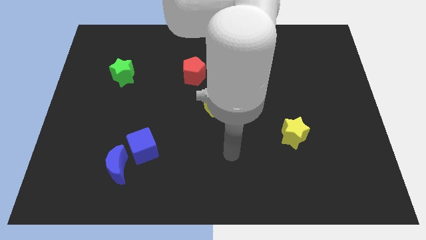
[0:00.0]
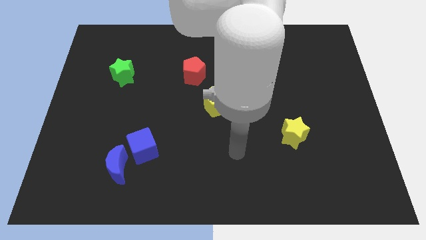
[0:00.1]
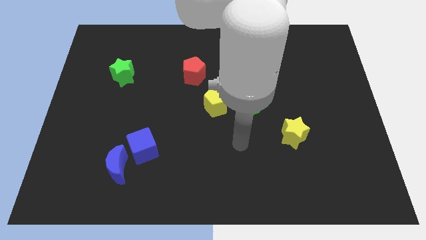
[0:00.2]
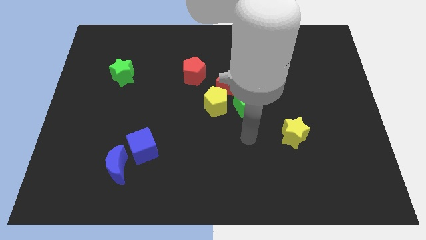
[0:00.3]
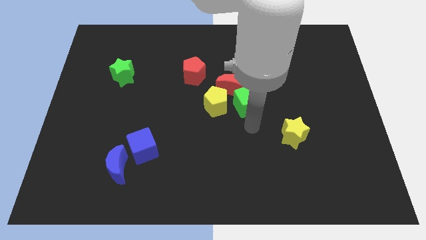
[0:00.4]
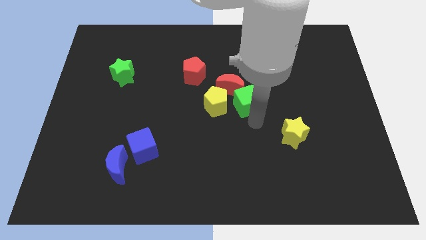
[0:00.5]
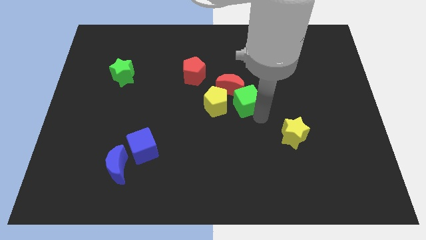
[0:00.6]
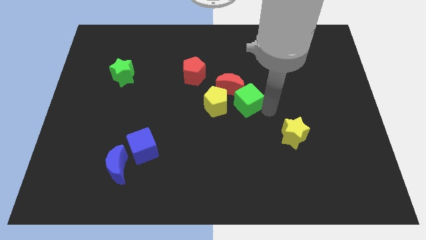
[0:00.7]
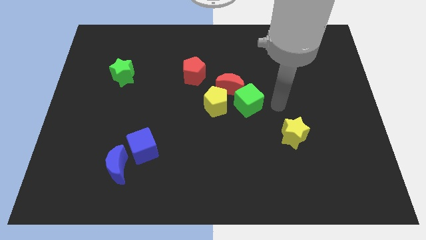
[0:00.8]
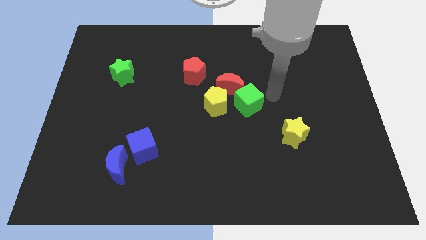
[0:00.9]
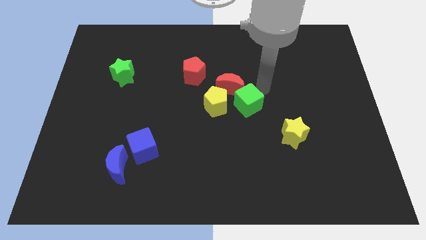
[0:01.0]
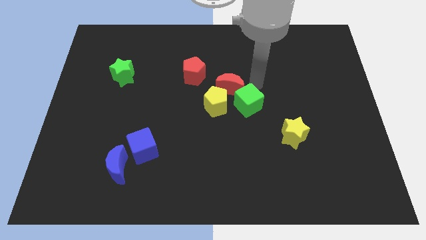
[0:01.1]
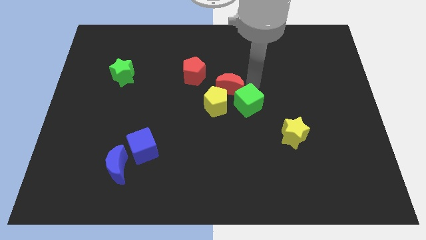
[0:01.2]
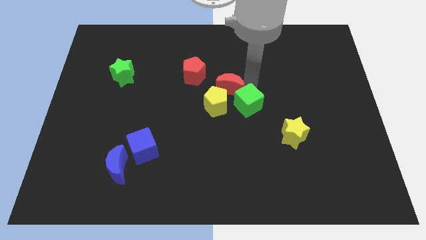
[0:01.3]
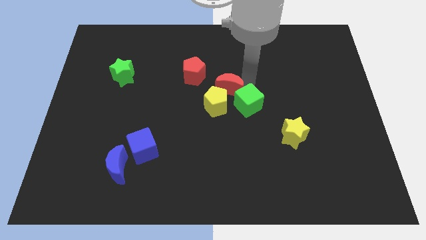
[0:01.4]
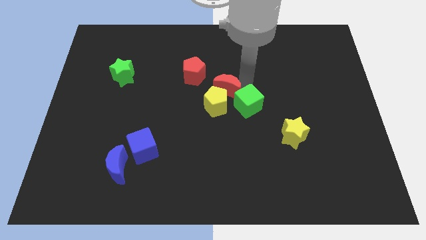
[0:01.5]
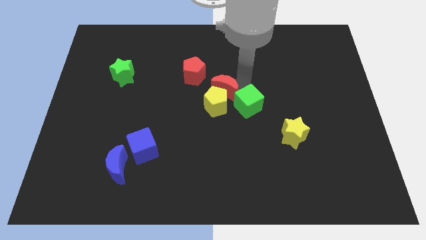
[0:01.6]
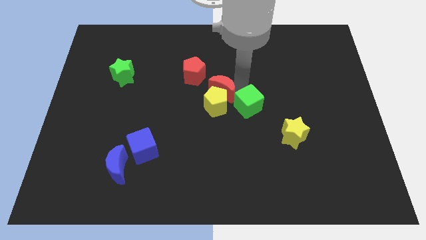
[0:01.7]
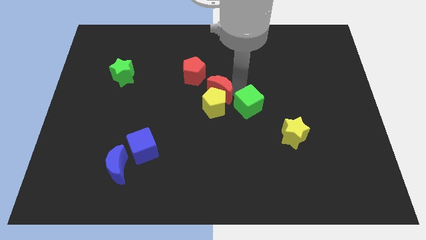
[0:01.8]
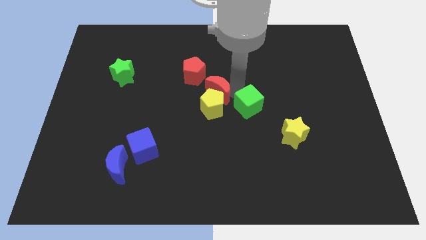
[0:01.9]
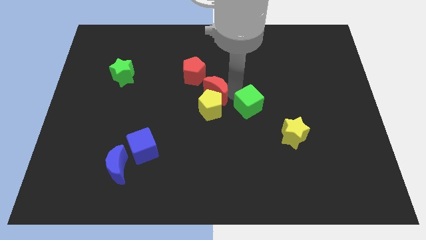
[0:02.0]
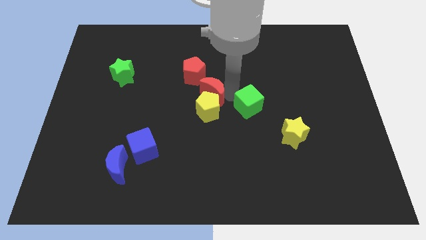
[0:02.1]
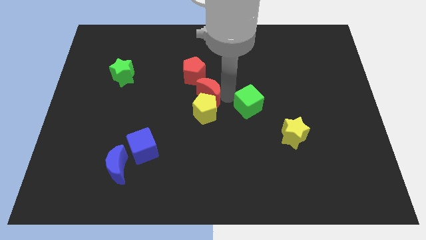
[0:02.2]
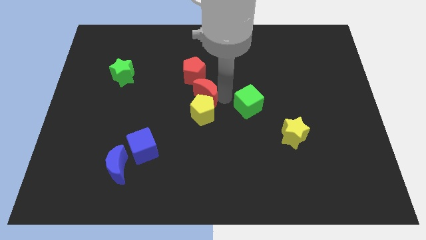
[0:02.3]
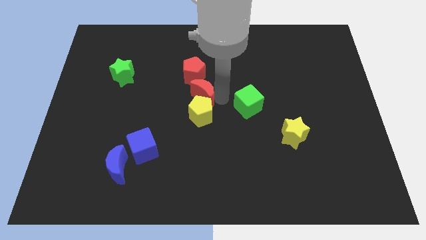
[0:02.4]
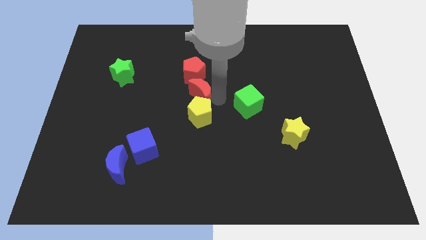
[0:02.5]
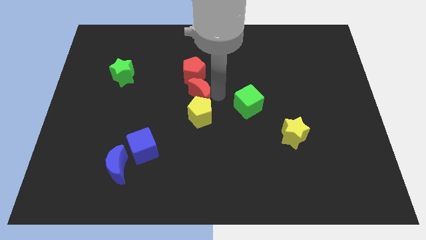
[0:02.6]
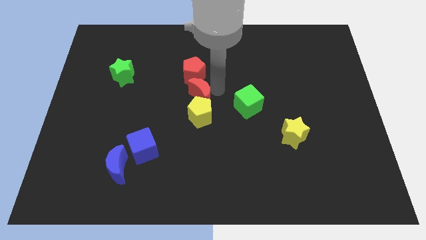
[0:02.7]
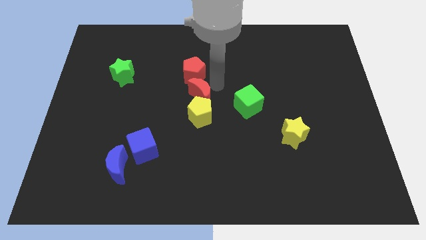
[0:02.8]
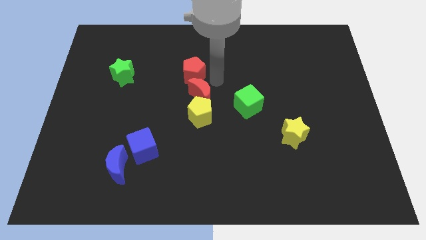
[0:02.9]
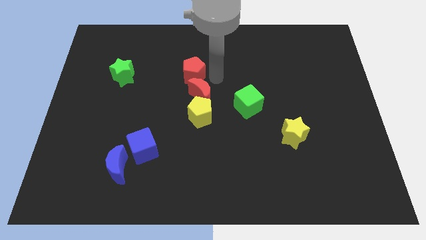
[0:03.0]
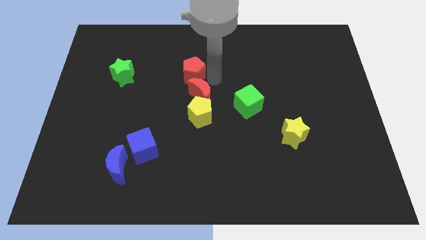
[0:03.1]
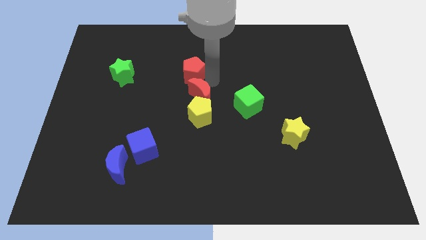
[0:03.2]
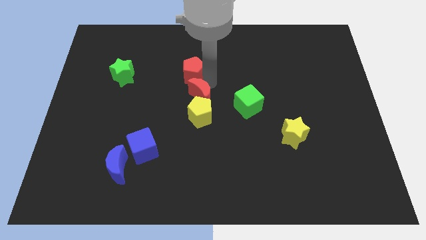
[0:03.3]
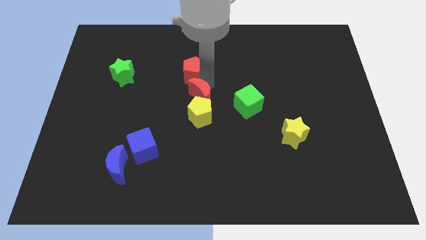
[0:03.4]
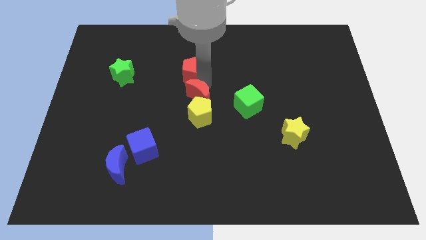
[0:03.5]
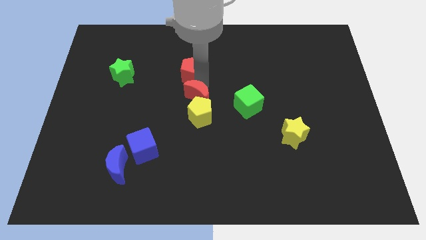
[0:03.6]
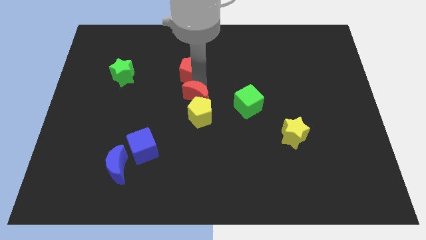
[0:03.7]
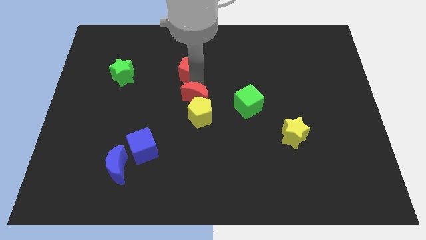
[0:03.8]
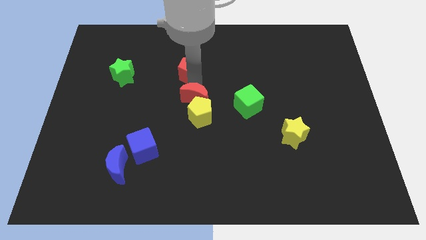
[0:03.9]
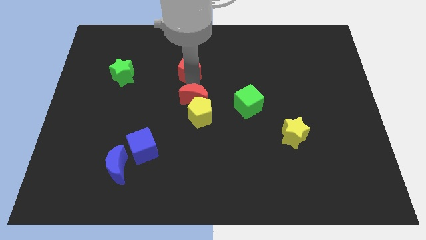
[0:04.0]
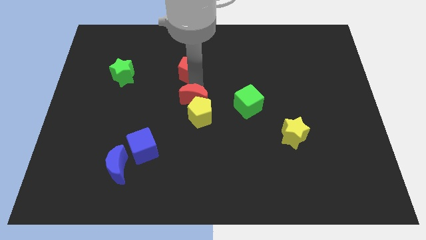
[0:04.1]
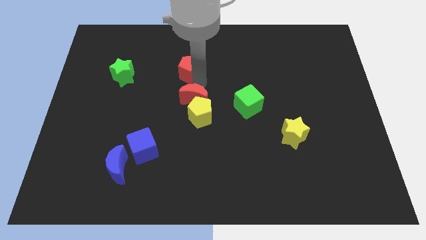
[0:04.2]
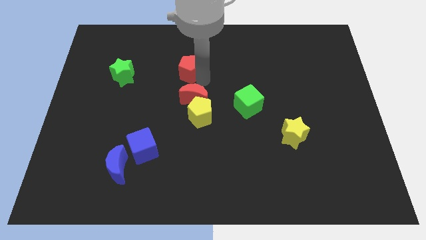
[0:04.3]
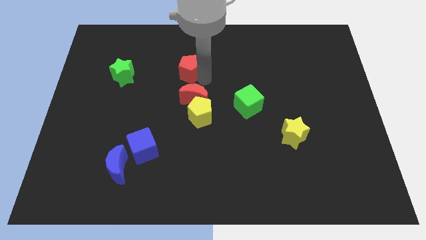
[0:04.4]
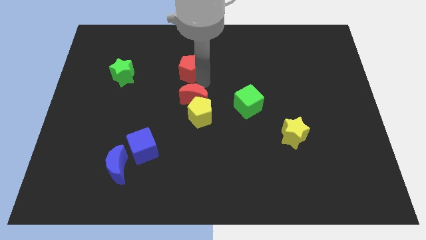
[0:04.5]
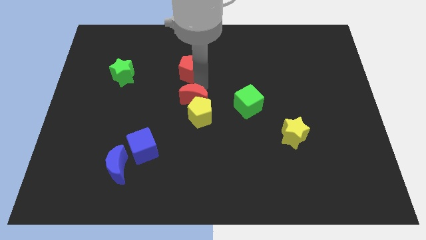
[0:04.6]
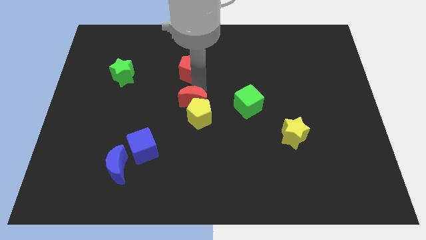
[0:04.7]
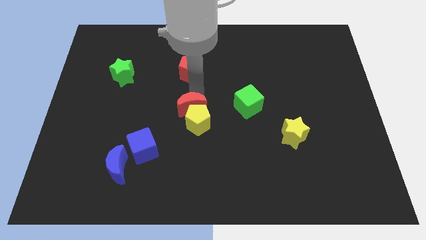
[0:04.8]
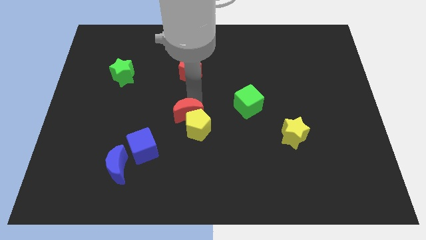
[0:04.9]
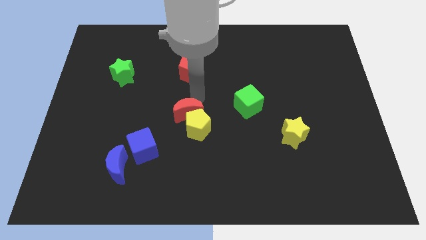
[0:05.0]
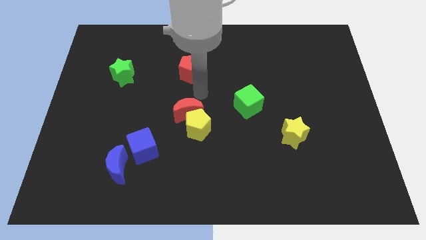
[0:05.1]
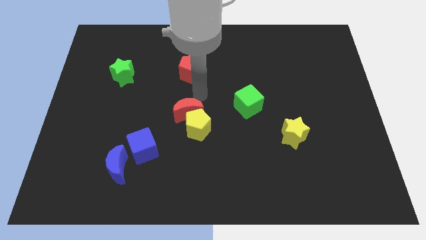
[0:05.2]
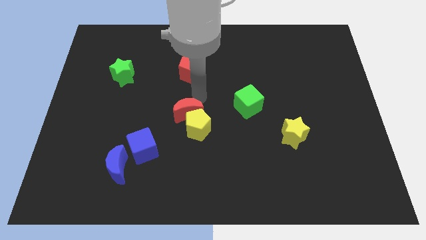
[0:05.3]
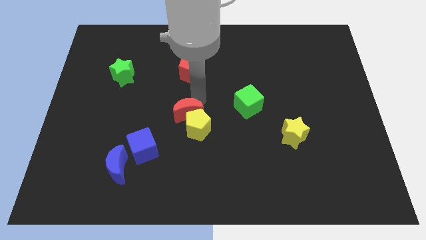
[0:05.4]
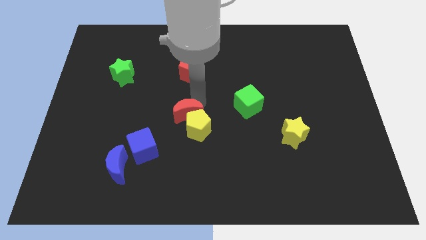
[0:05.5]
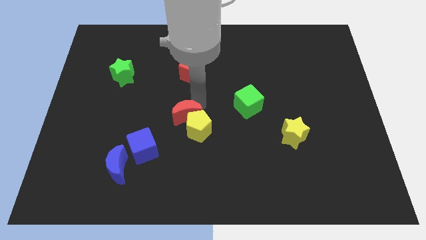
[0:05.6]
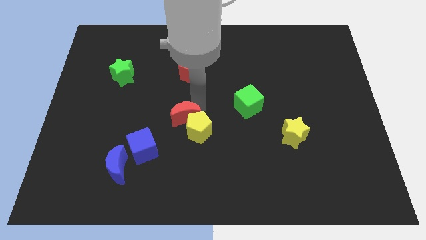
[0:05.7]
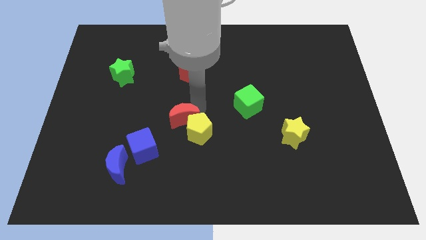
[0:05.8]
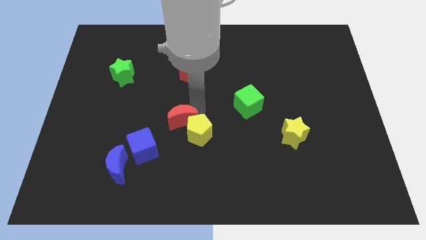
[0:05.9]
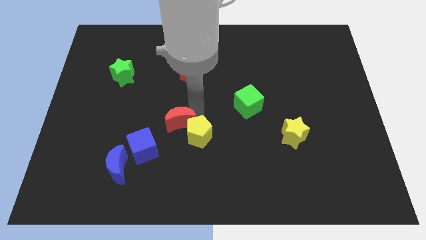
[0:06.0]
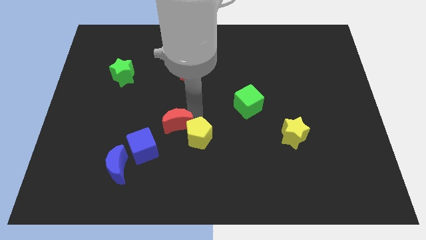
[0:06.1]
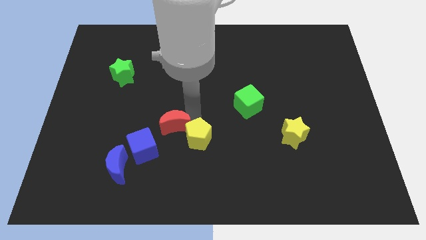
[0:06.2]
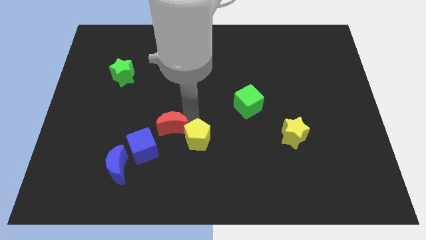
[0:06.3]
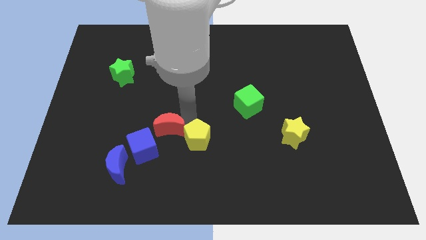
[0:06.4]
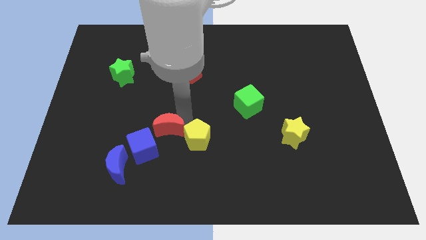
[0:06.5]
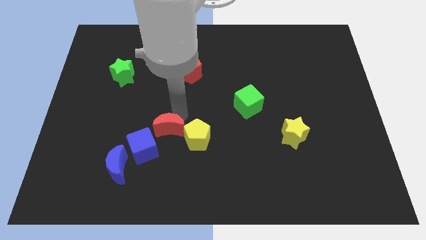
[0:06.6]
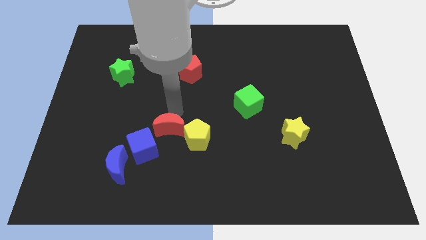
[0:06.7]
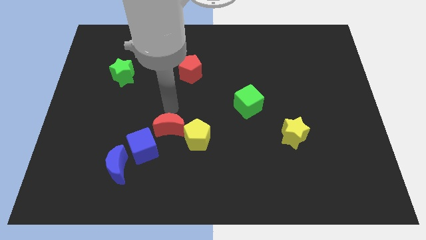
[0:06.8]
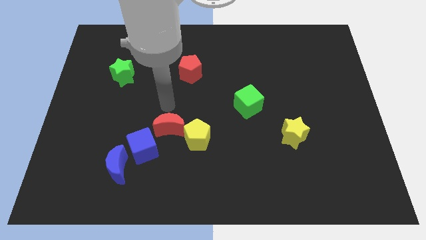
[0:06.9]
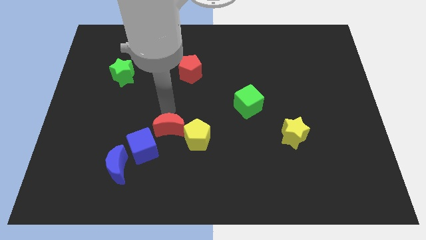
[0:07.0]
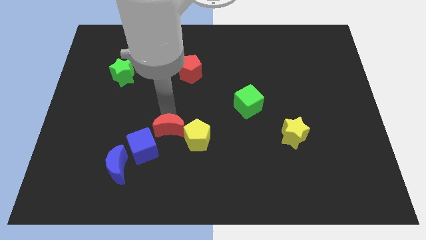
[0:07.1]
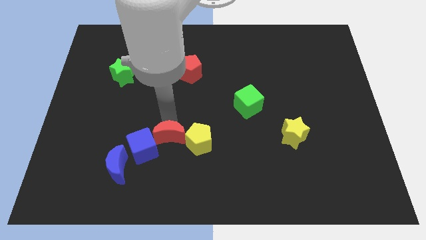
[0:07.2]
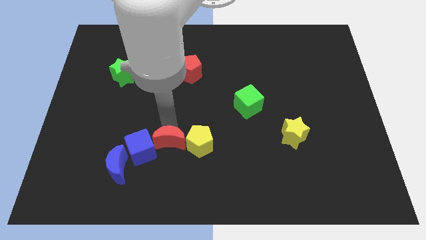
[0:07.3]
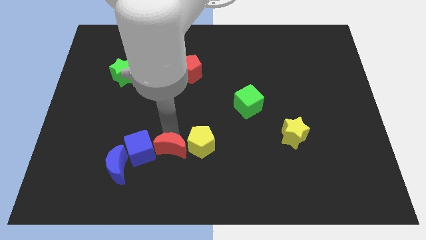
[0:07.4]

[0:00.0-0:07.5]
put the red moon to the right of the blue moon
